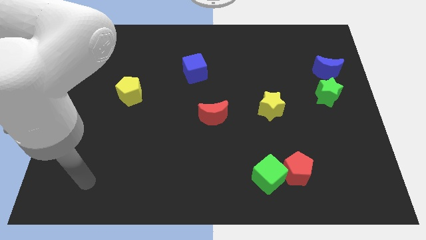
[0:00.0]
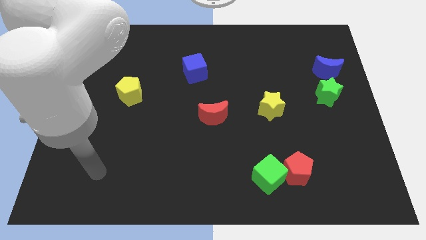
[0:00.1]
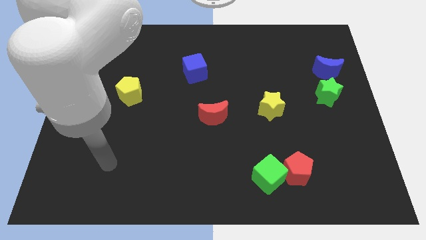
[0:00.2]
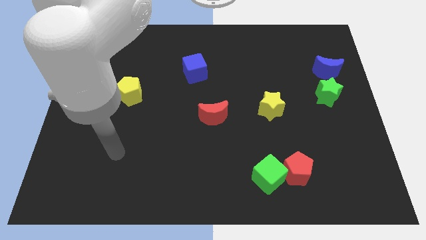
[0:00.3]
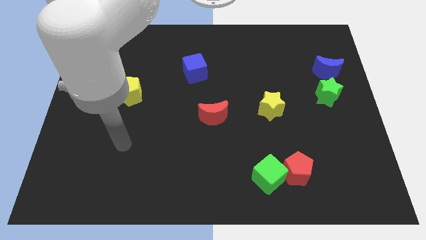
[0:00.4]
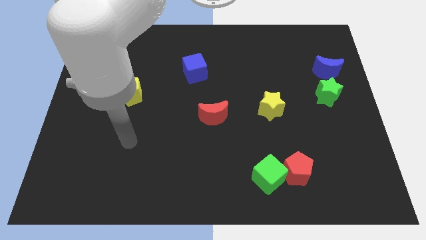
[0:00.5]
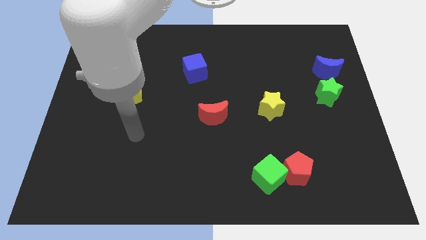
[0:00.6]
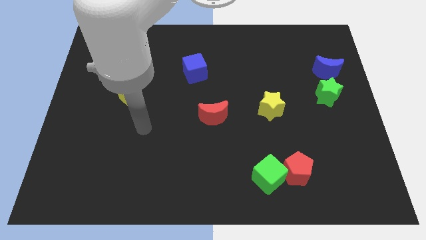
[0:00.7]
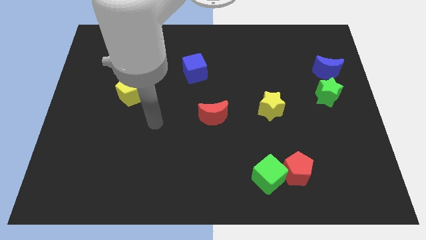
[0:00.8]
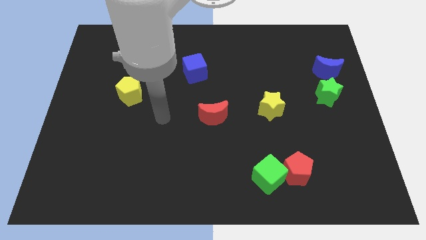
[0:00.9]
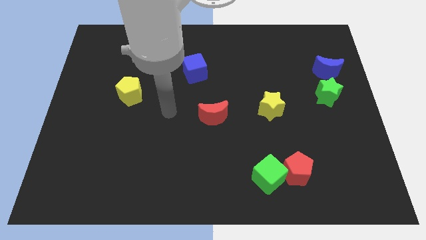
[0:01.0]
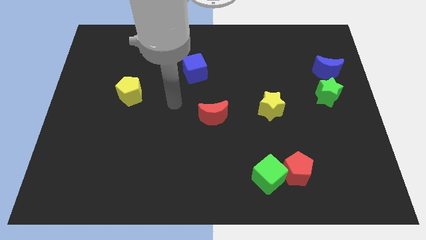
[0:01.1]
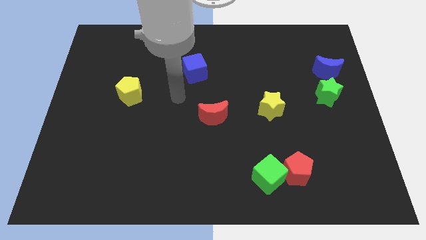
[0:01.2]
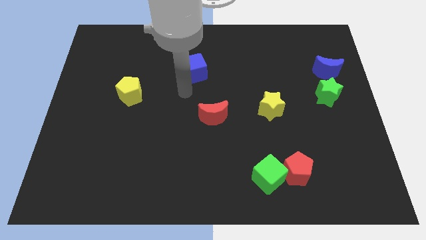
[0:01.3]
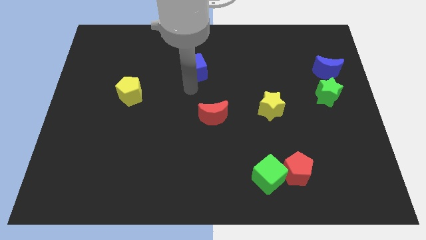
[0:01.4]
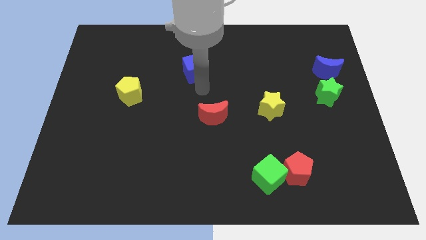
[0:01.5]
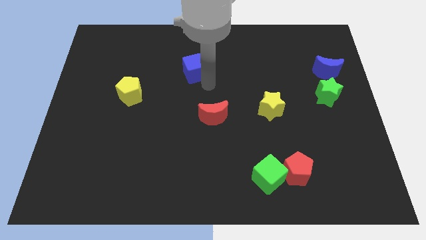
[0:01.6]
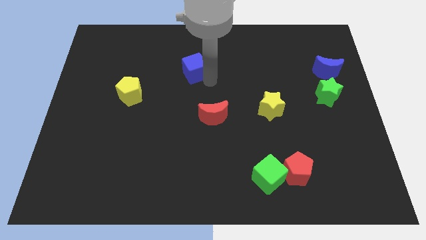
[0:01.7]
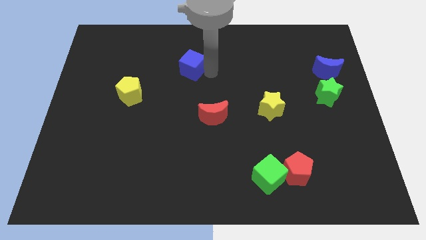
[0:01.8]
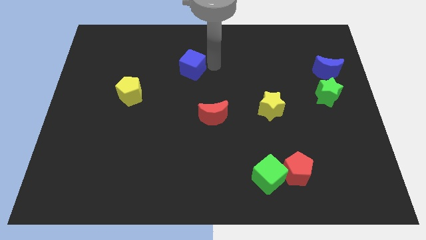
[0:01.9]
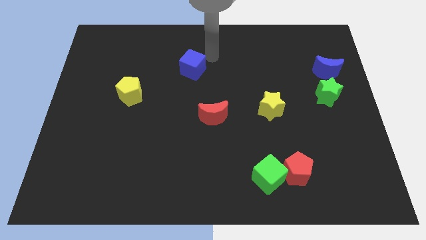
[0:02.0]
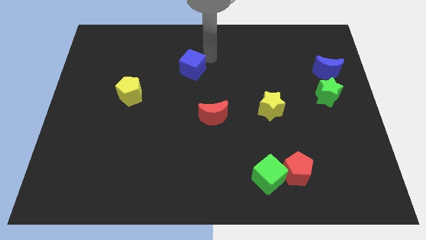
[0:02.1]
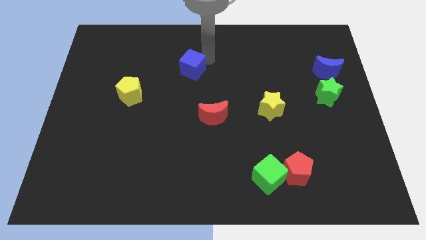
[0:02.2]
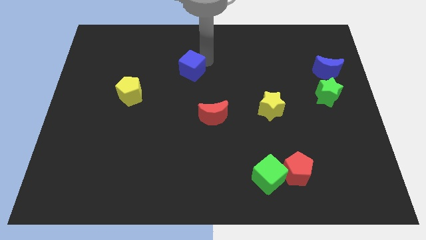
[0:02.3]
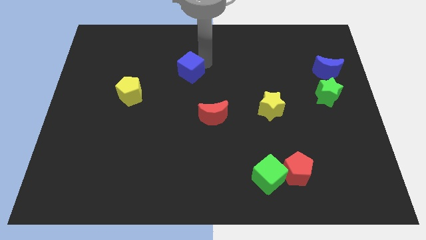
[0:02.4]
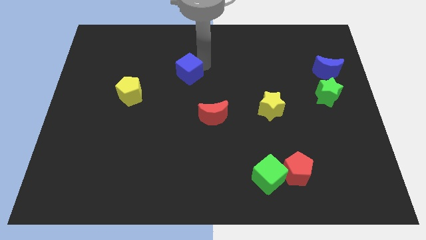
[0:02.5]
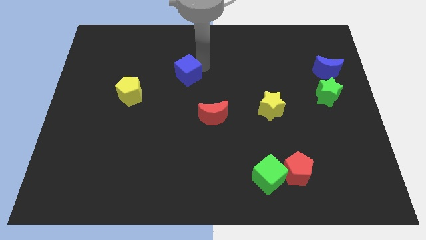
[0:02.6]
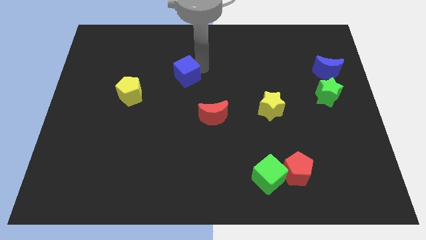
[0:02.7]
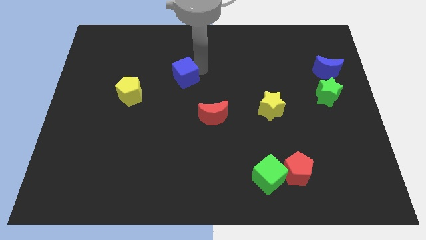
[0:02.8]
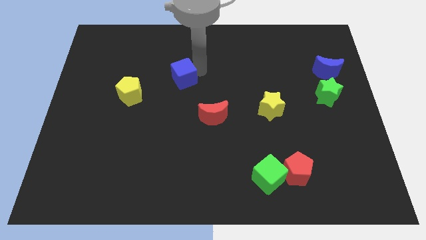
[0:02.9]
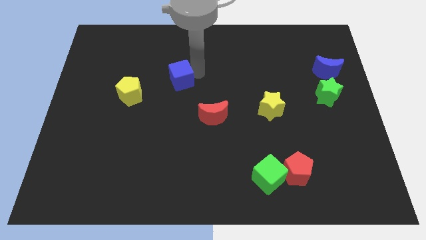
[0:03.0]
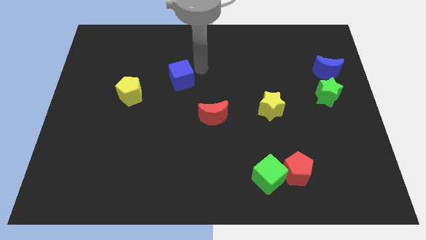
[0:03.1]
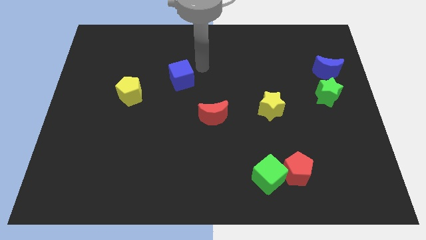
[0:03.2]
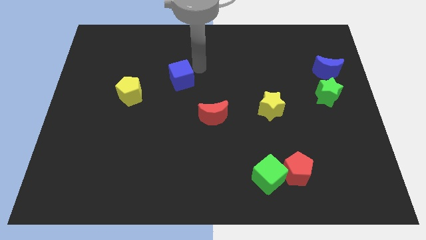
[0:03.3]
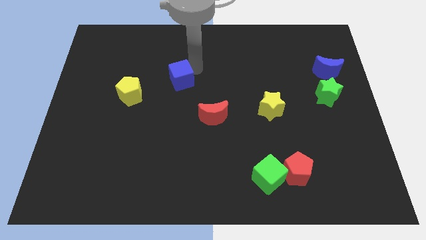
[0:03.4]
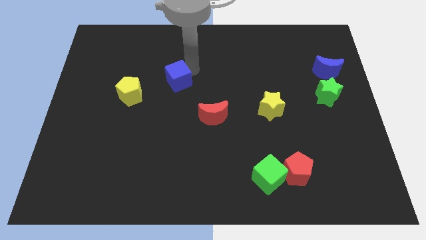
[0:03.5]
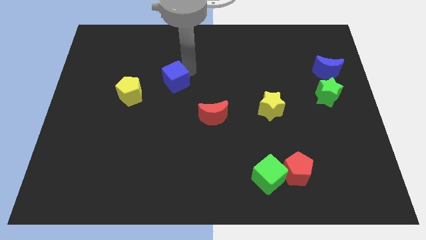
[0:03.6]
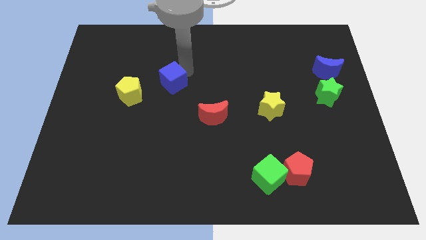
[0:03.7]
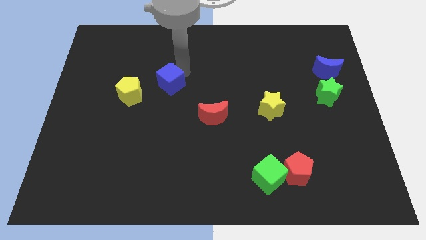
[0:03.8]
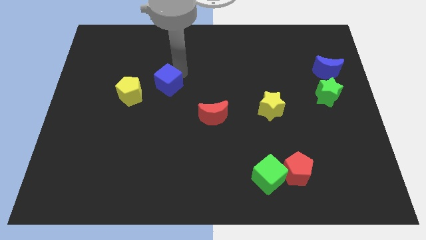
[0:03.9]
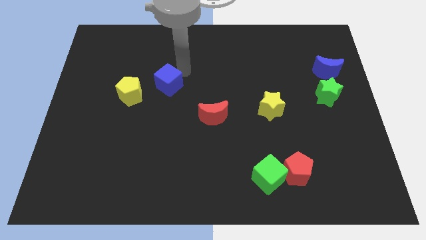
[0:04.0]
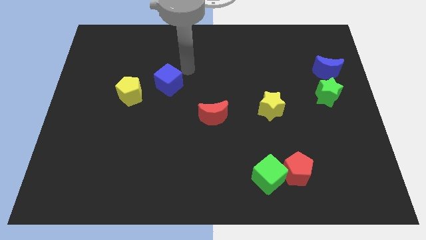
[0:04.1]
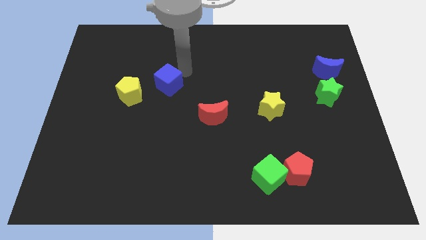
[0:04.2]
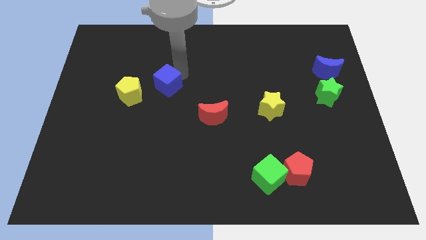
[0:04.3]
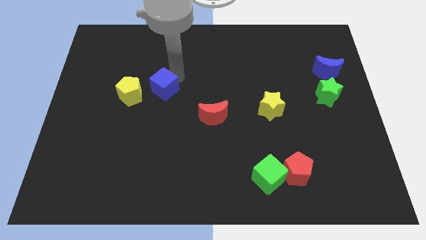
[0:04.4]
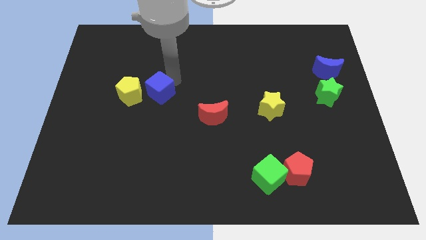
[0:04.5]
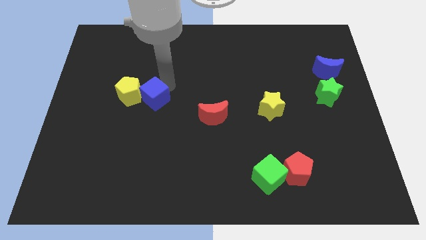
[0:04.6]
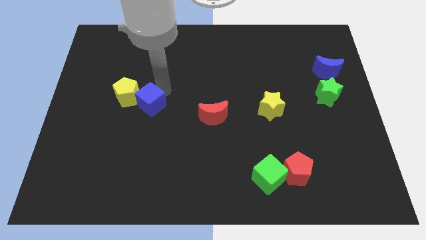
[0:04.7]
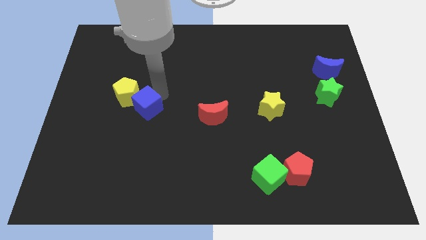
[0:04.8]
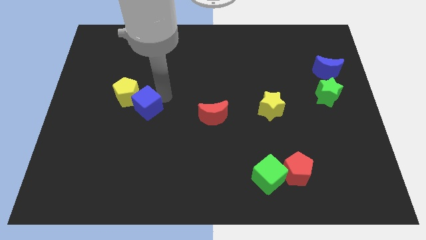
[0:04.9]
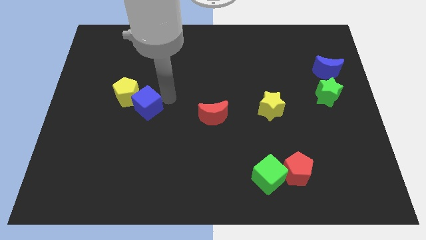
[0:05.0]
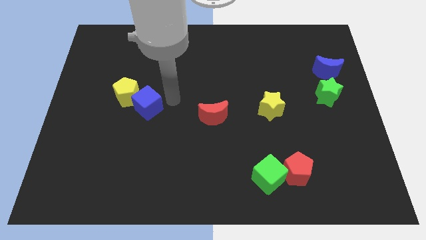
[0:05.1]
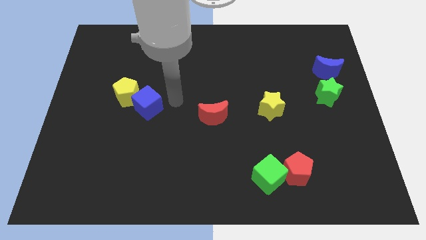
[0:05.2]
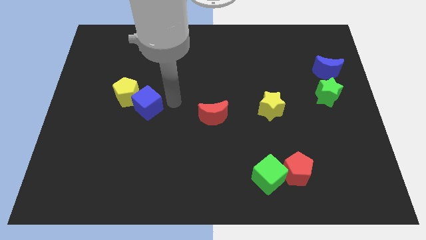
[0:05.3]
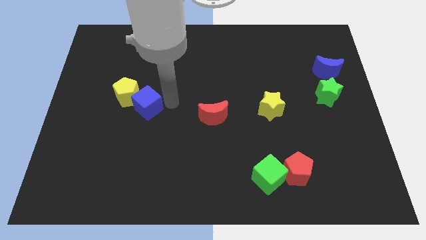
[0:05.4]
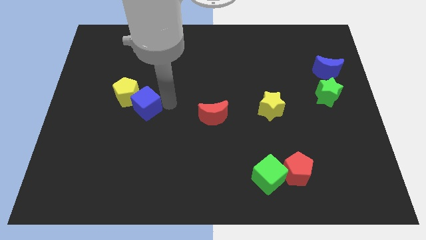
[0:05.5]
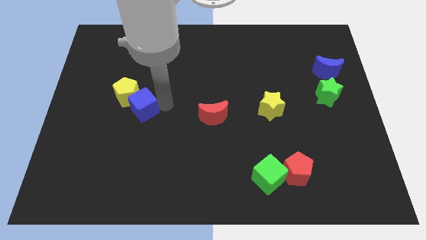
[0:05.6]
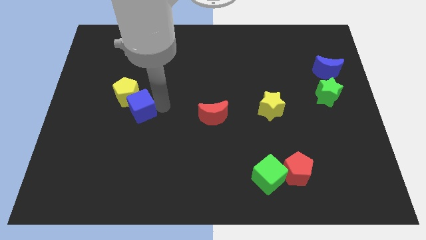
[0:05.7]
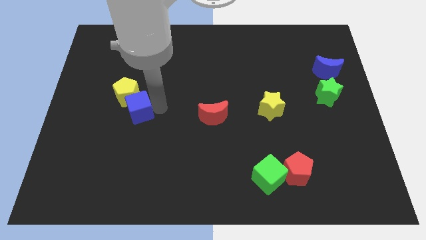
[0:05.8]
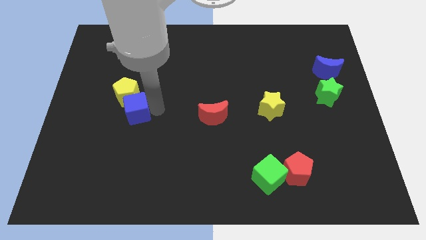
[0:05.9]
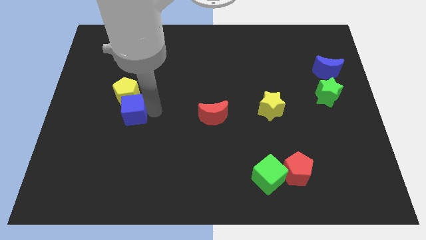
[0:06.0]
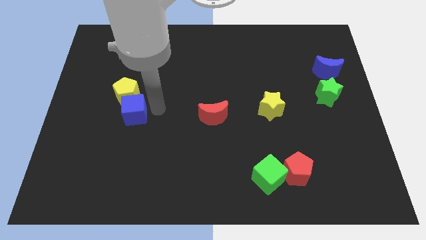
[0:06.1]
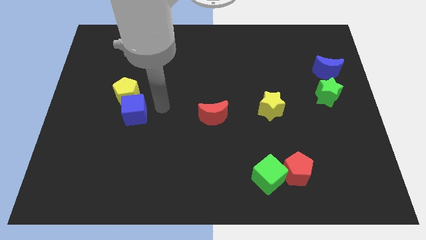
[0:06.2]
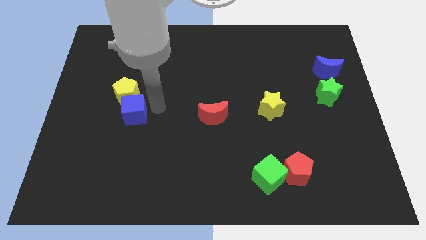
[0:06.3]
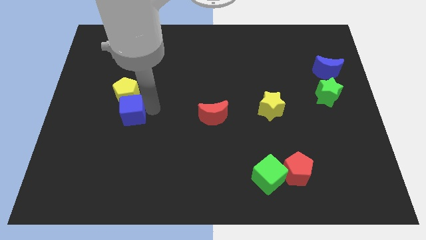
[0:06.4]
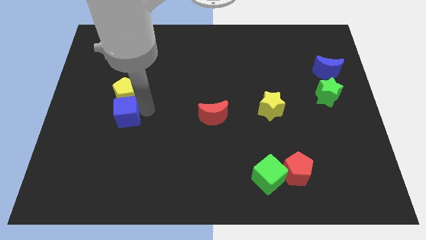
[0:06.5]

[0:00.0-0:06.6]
move the blue cube down and to the left

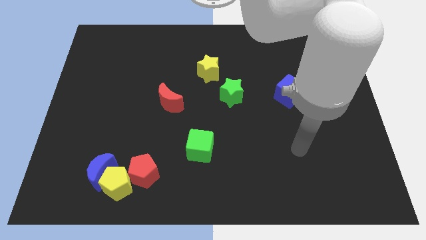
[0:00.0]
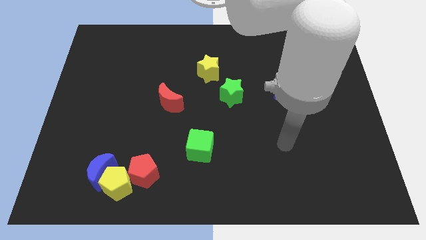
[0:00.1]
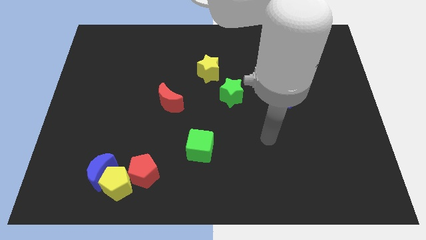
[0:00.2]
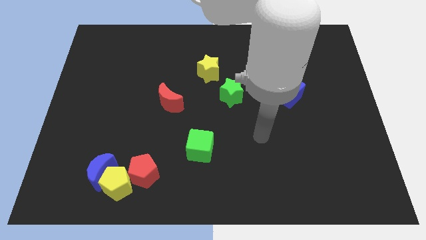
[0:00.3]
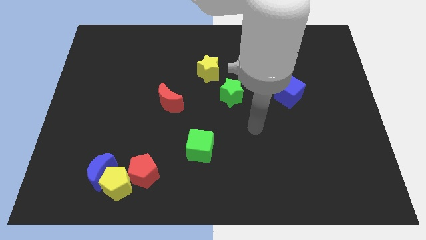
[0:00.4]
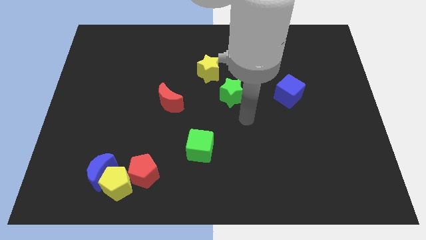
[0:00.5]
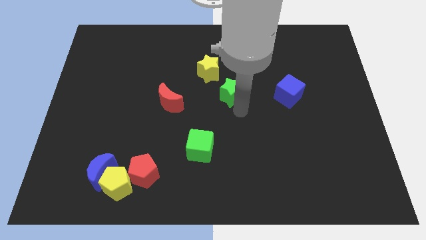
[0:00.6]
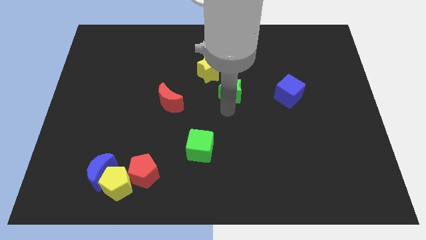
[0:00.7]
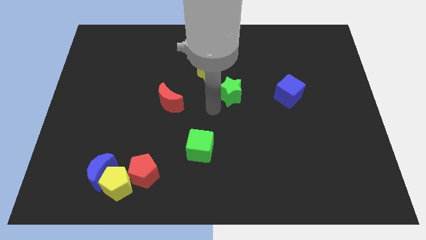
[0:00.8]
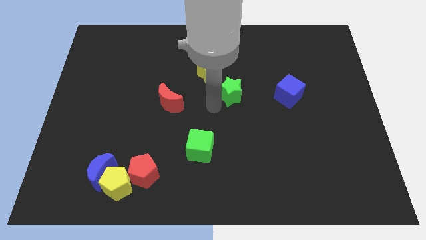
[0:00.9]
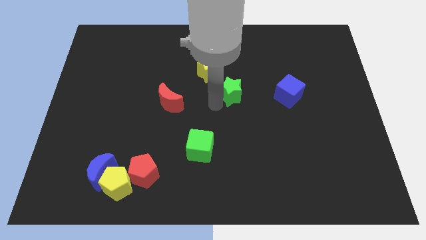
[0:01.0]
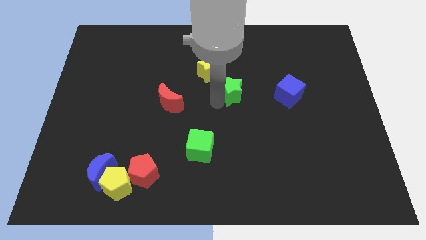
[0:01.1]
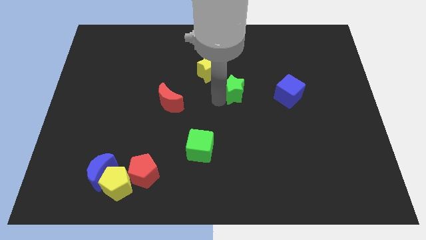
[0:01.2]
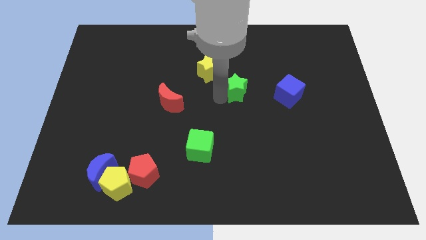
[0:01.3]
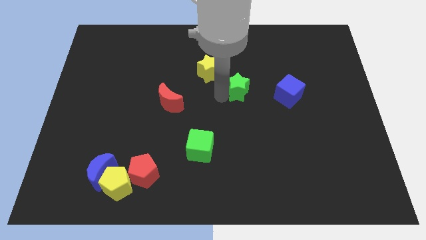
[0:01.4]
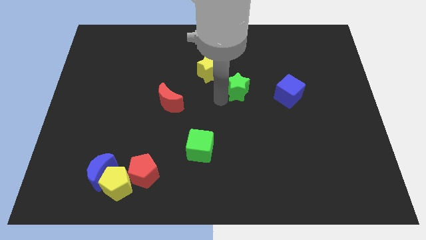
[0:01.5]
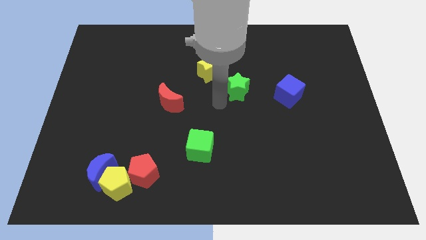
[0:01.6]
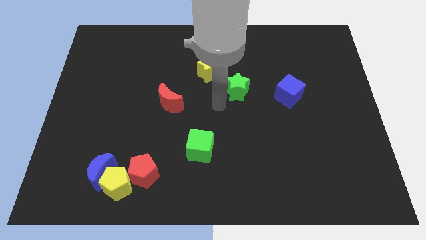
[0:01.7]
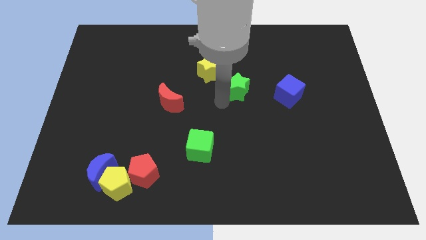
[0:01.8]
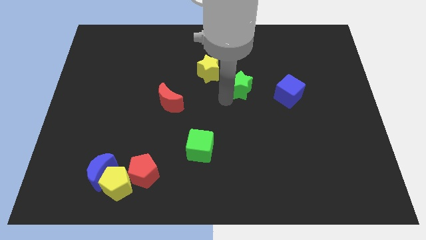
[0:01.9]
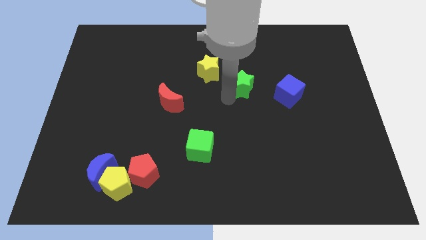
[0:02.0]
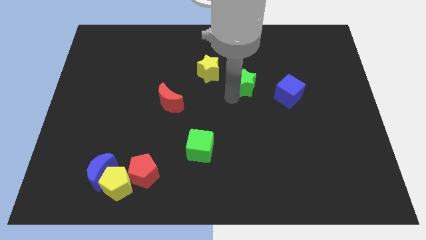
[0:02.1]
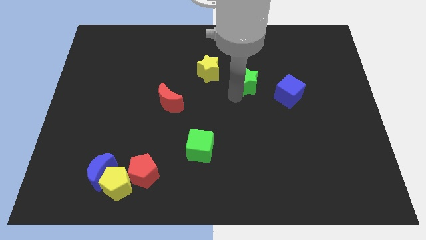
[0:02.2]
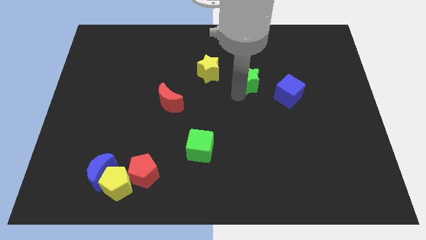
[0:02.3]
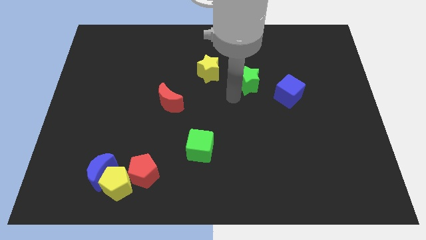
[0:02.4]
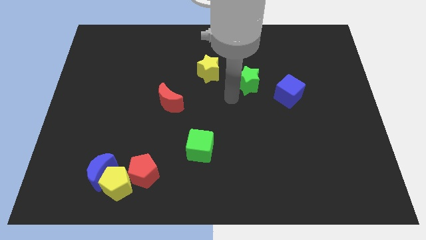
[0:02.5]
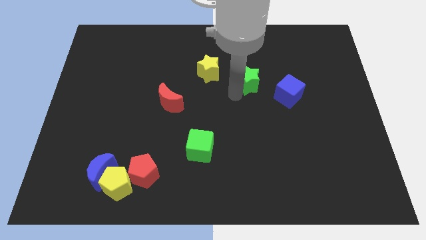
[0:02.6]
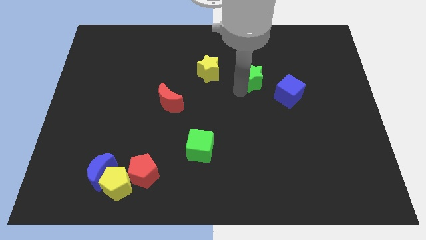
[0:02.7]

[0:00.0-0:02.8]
push the green star slightly up and to the right
